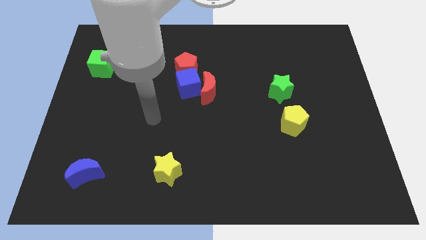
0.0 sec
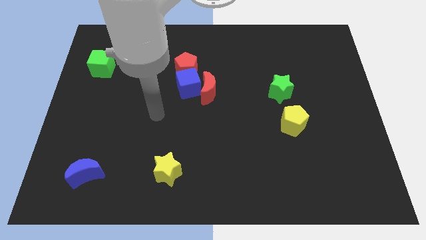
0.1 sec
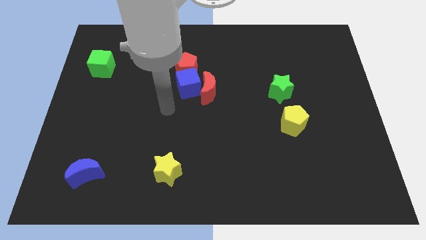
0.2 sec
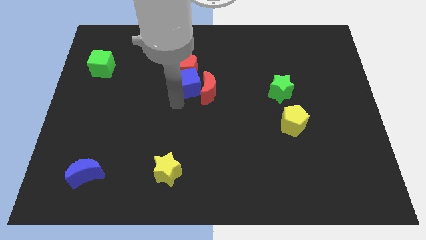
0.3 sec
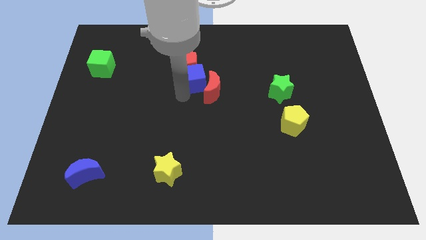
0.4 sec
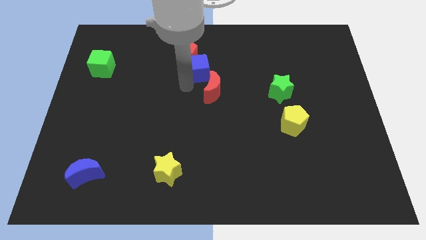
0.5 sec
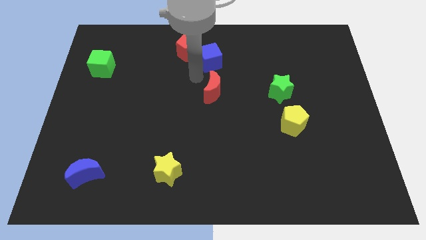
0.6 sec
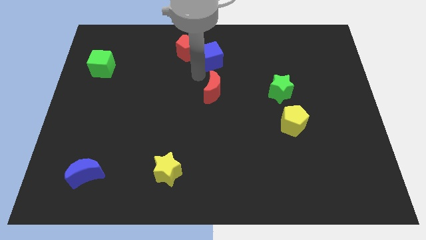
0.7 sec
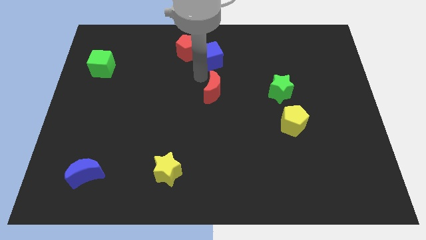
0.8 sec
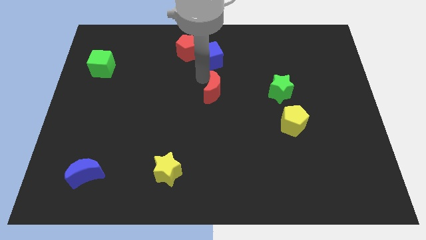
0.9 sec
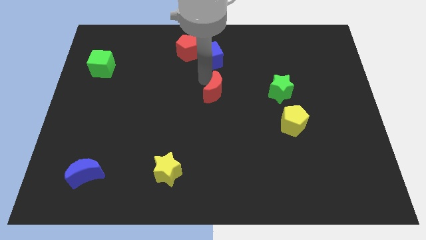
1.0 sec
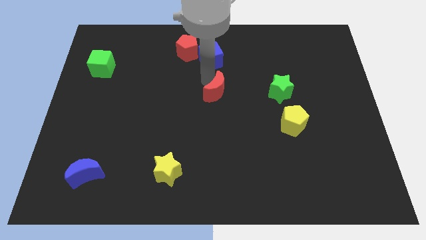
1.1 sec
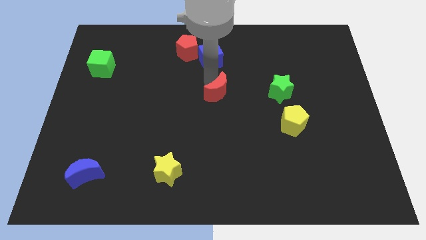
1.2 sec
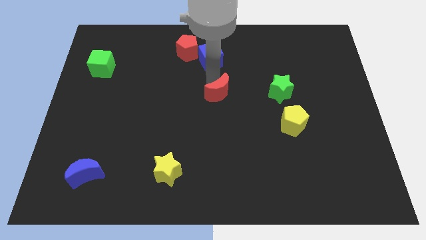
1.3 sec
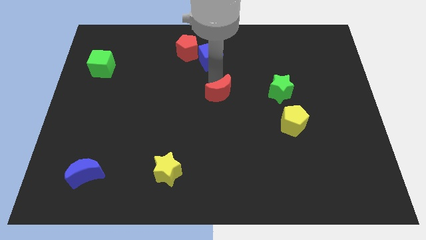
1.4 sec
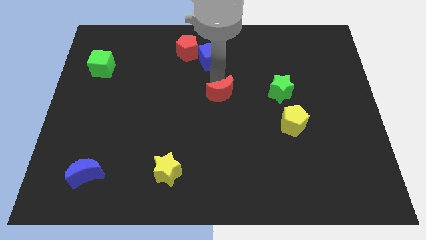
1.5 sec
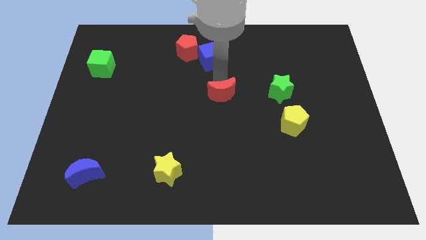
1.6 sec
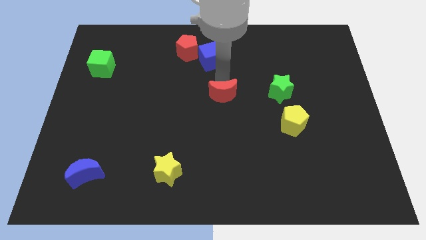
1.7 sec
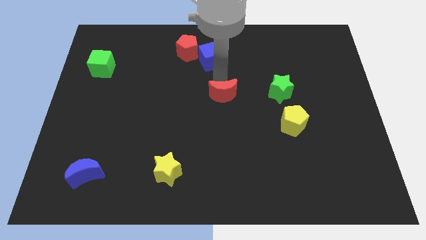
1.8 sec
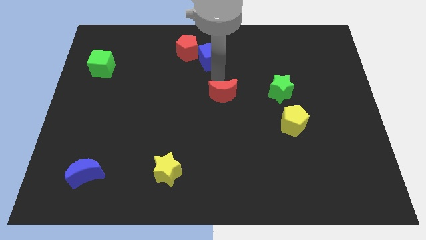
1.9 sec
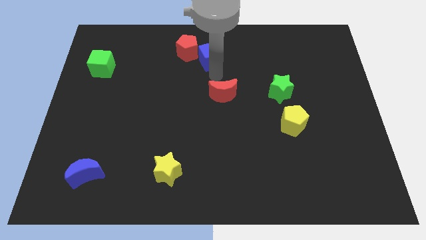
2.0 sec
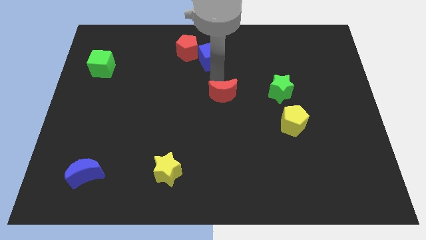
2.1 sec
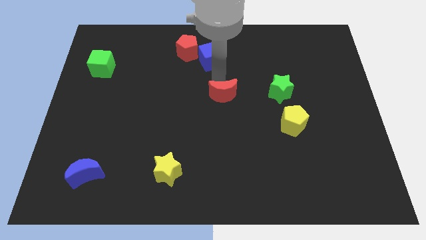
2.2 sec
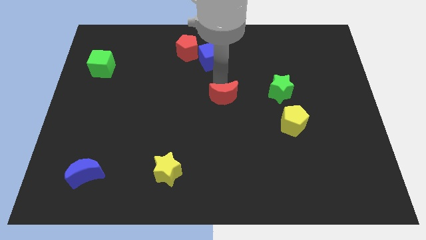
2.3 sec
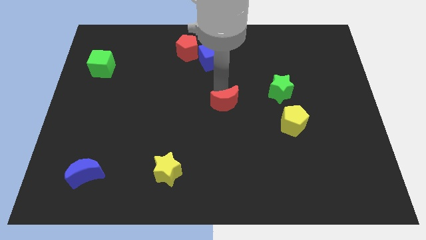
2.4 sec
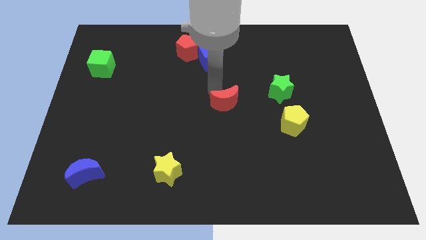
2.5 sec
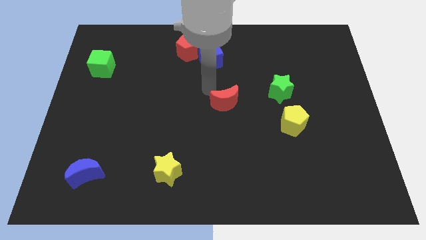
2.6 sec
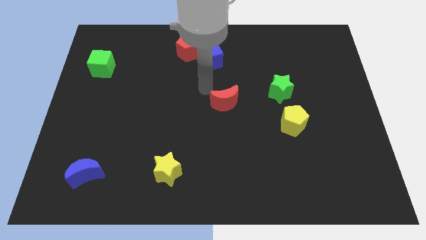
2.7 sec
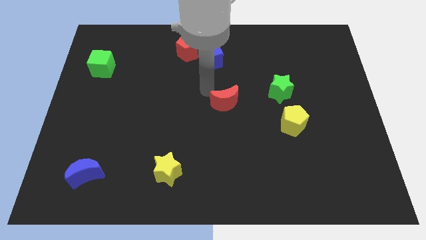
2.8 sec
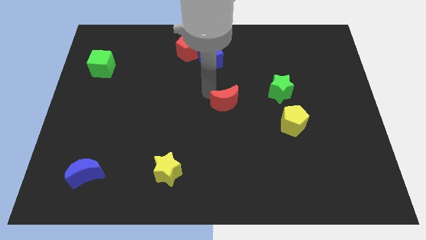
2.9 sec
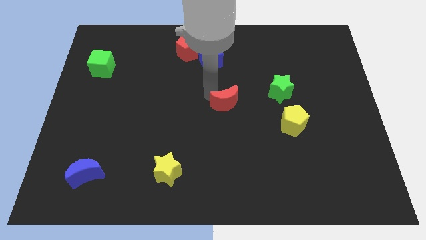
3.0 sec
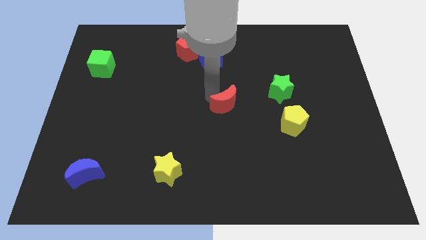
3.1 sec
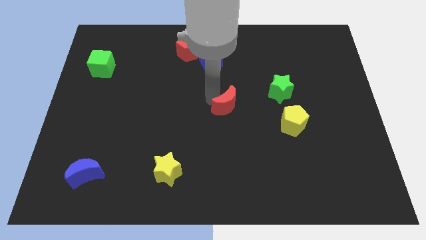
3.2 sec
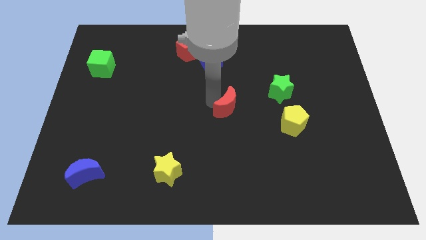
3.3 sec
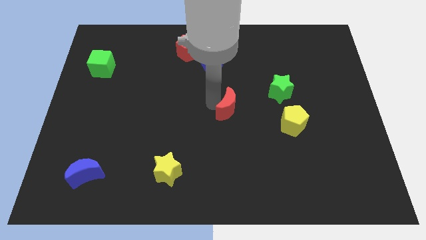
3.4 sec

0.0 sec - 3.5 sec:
slightly slide the red moon downwards and then right

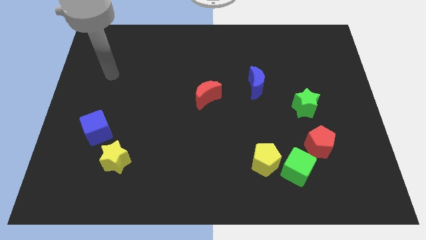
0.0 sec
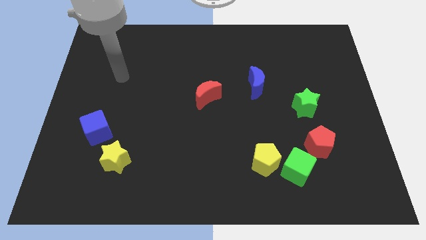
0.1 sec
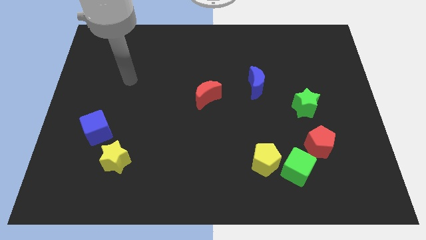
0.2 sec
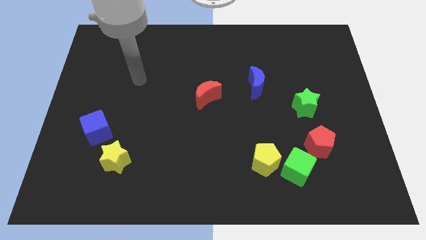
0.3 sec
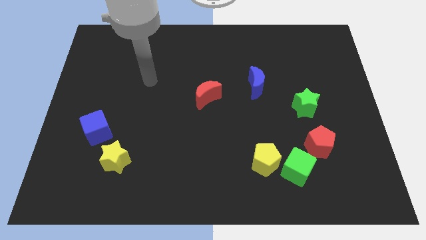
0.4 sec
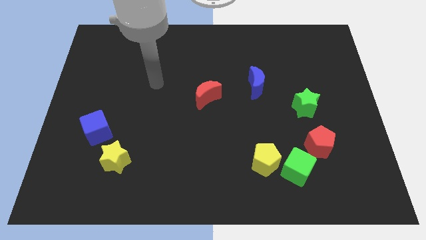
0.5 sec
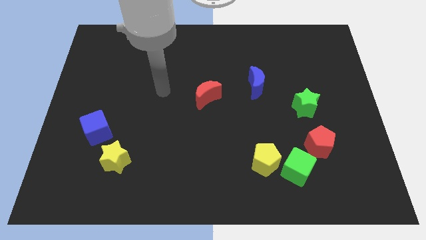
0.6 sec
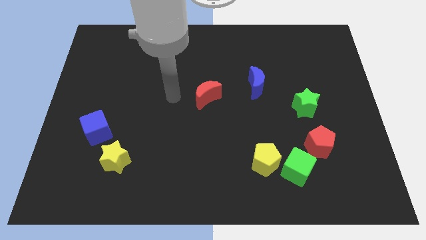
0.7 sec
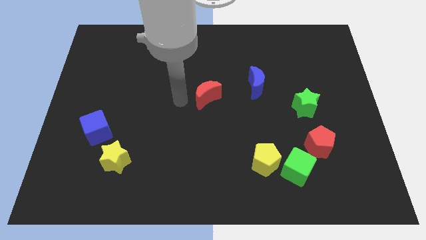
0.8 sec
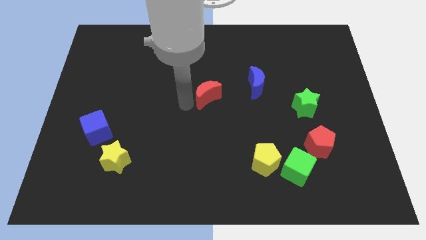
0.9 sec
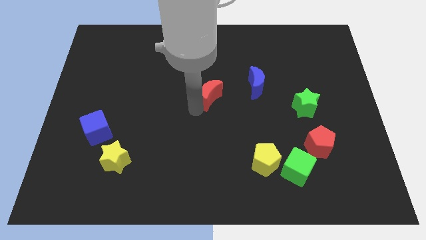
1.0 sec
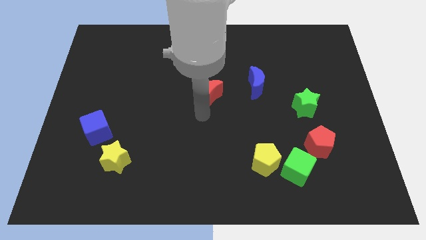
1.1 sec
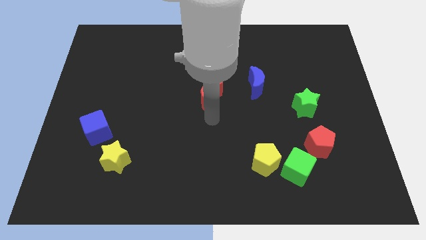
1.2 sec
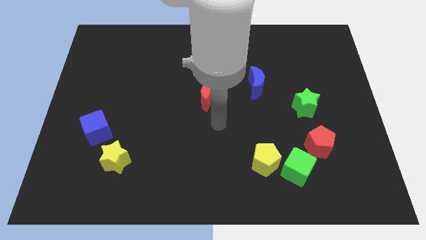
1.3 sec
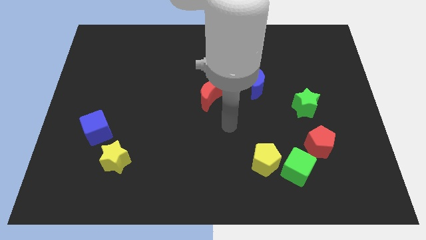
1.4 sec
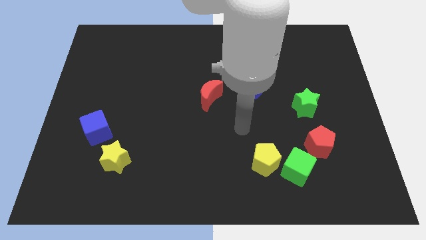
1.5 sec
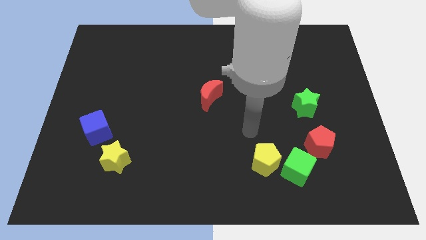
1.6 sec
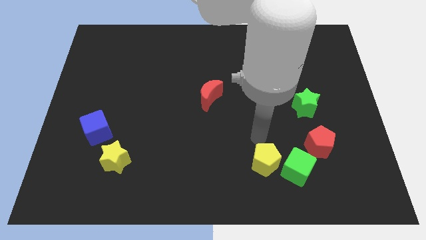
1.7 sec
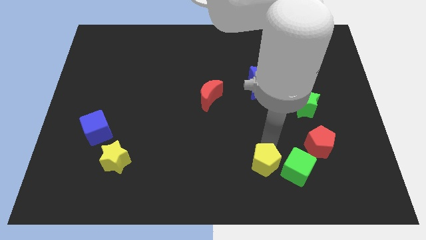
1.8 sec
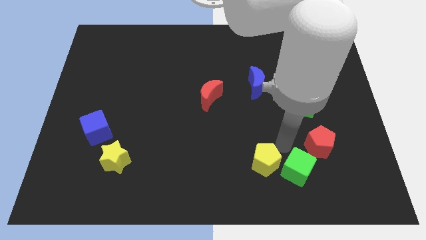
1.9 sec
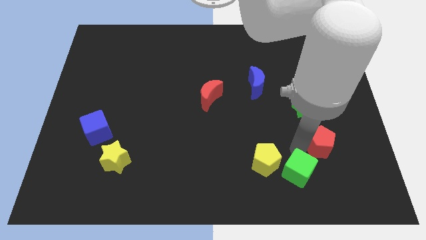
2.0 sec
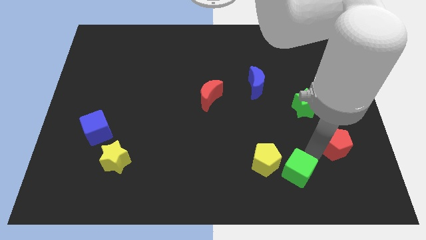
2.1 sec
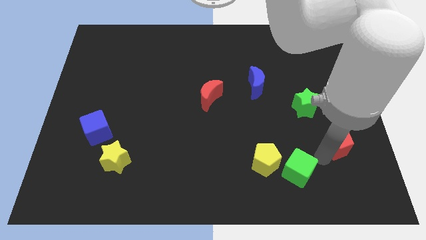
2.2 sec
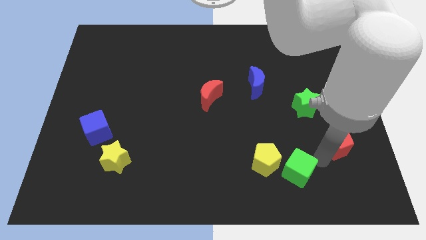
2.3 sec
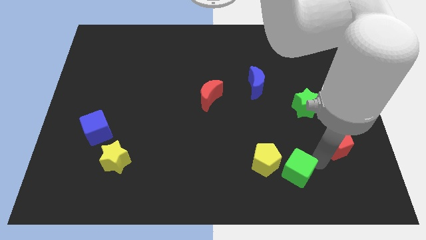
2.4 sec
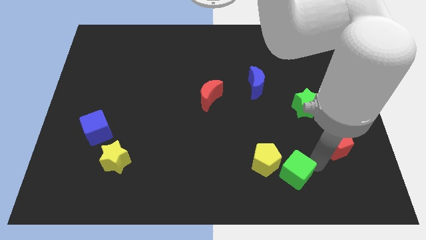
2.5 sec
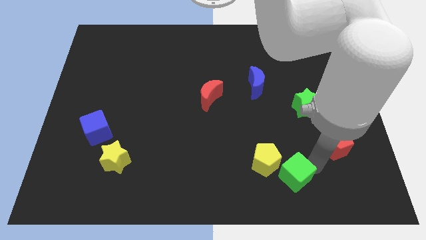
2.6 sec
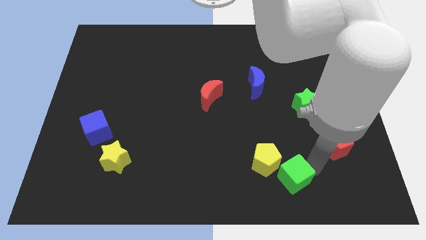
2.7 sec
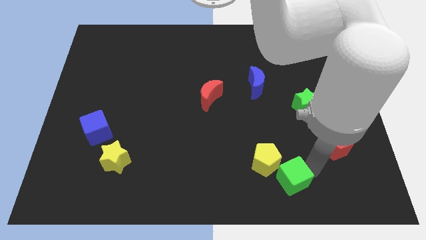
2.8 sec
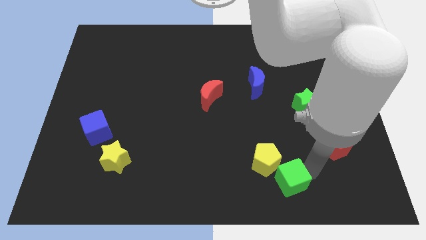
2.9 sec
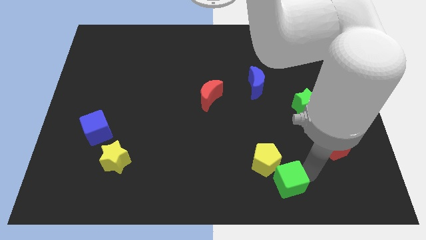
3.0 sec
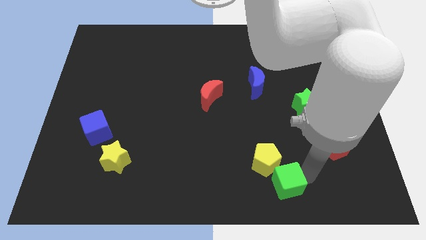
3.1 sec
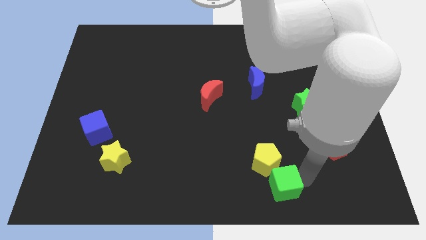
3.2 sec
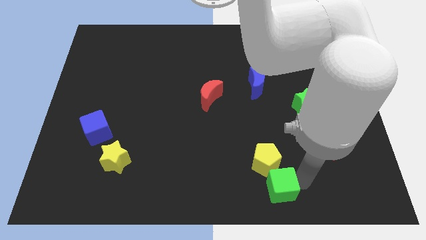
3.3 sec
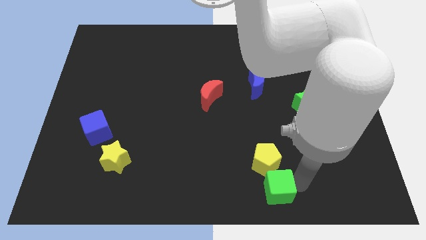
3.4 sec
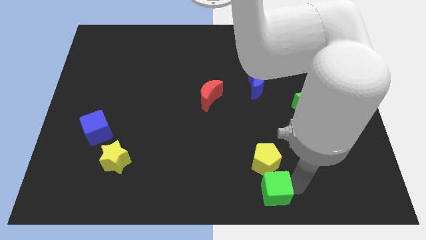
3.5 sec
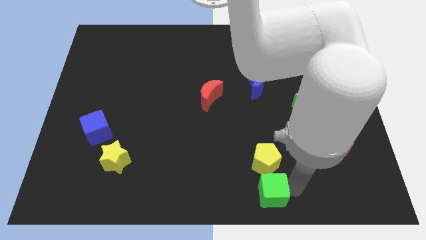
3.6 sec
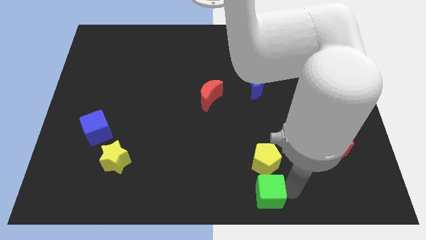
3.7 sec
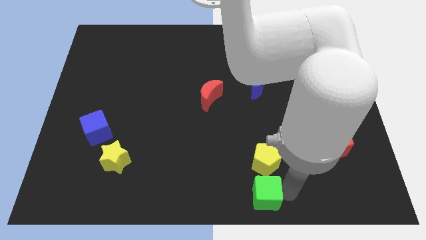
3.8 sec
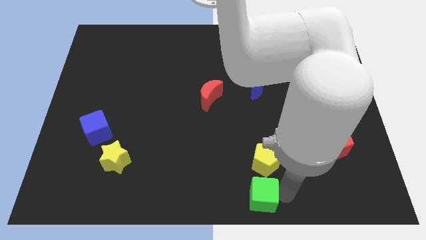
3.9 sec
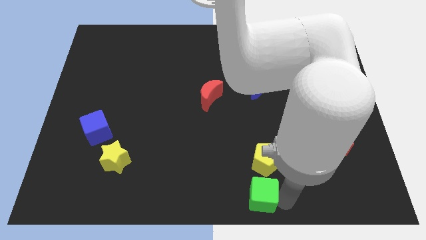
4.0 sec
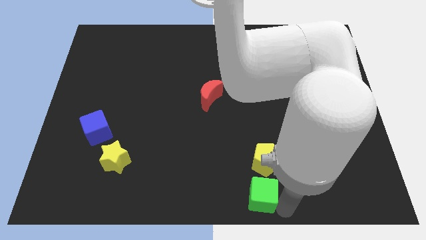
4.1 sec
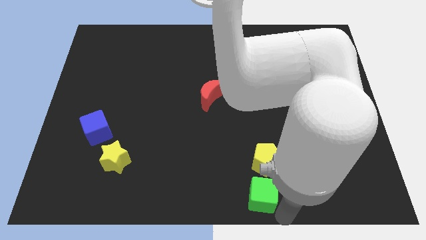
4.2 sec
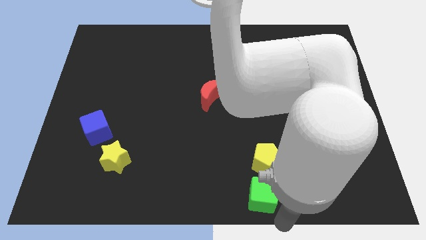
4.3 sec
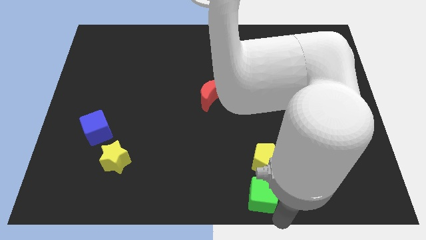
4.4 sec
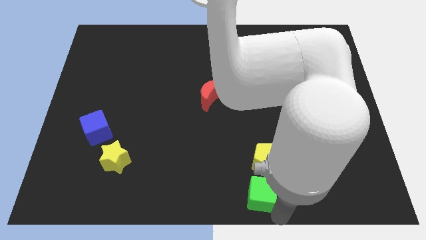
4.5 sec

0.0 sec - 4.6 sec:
slightly move the green cube to the left

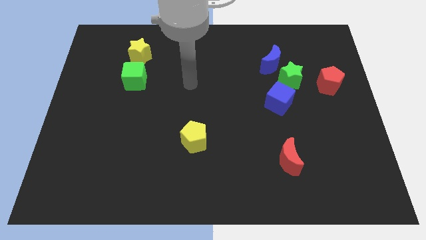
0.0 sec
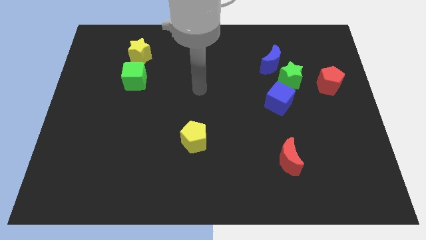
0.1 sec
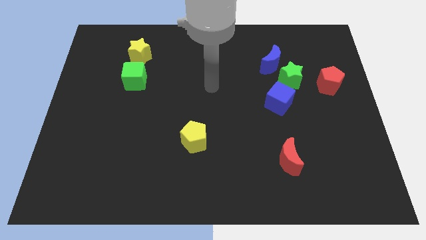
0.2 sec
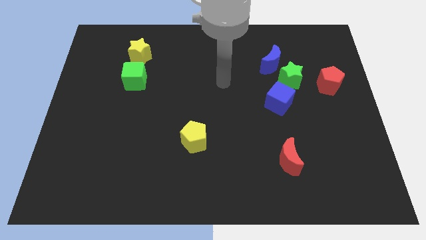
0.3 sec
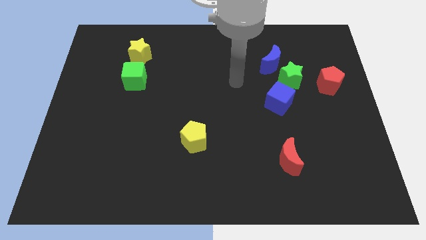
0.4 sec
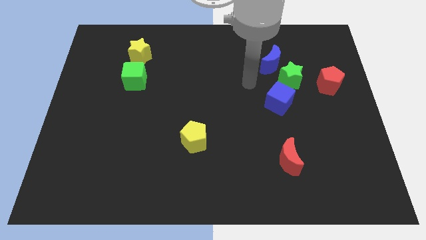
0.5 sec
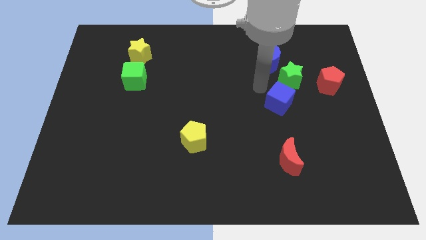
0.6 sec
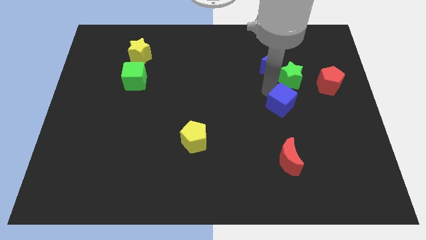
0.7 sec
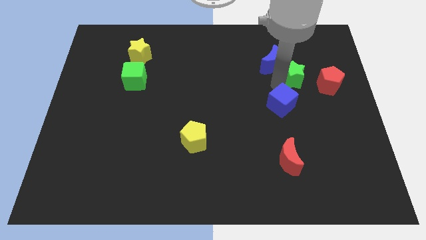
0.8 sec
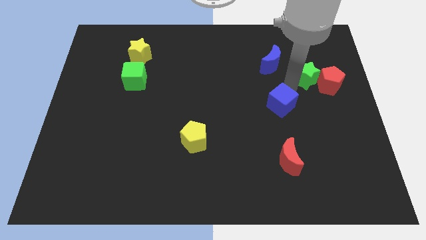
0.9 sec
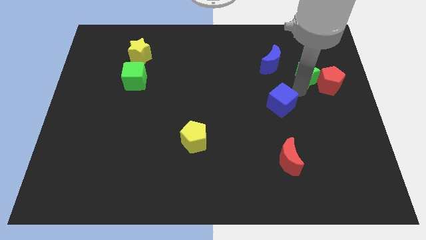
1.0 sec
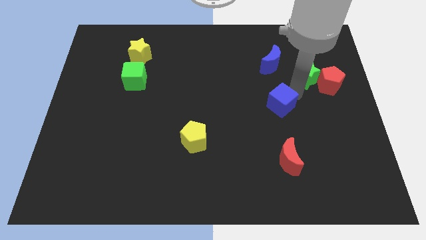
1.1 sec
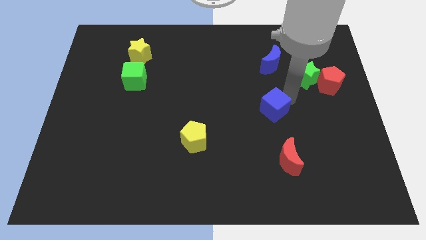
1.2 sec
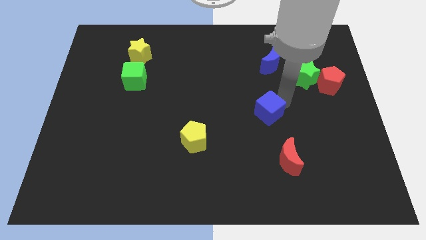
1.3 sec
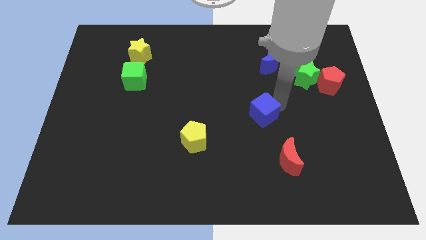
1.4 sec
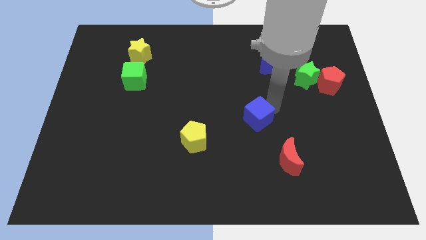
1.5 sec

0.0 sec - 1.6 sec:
slightly move the blue cube down and then left
